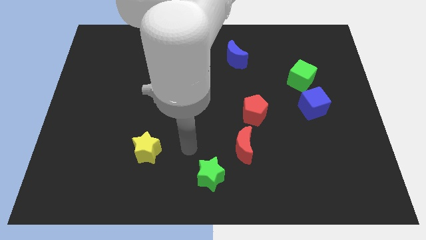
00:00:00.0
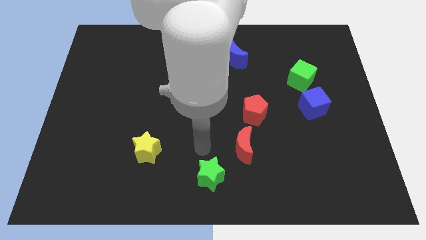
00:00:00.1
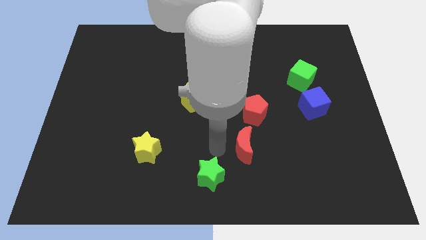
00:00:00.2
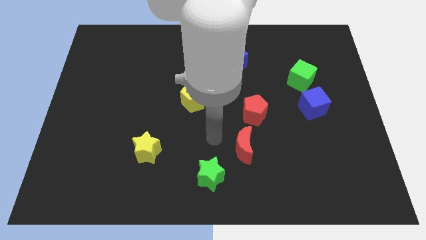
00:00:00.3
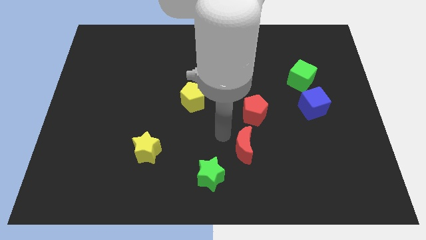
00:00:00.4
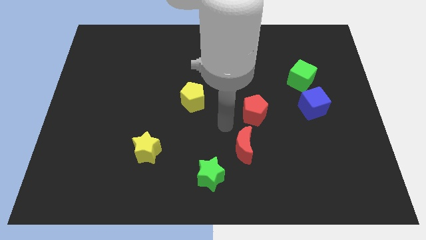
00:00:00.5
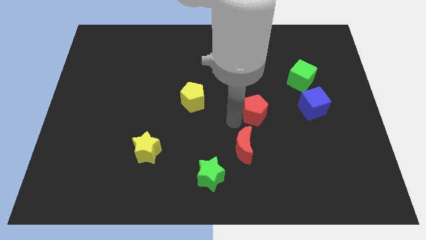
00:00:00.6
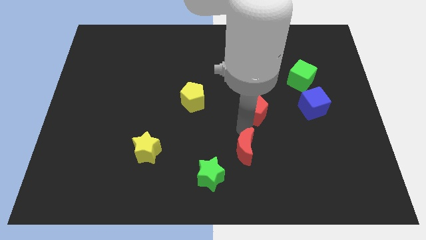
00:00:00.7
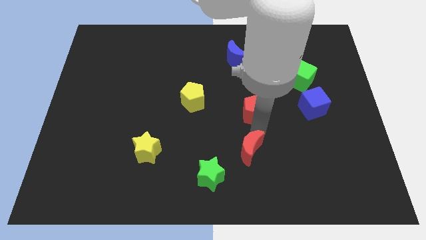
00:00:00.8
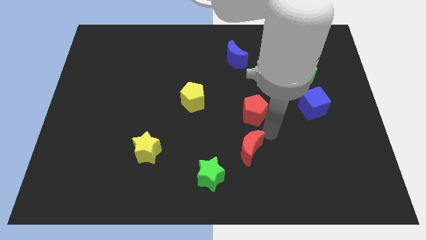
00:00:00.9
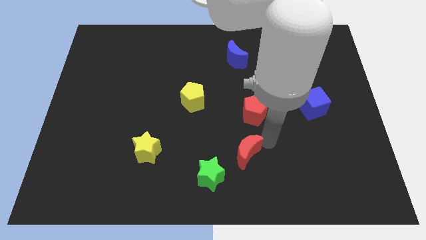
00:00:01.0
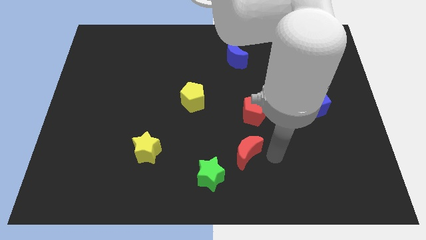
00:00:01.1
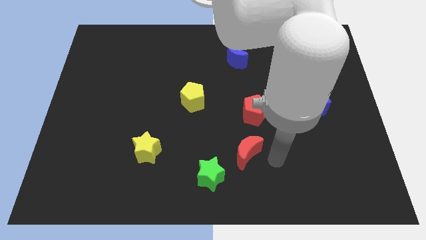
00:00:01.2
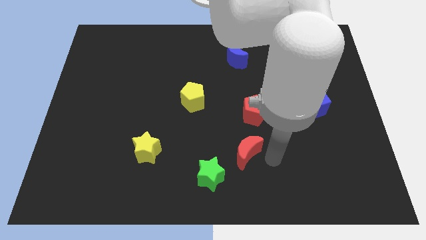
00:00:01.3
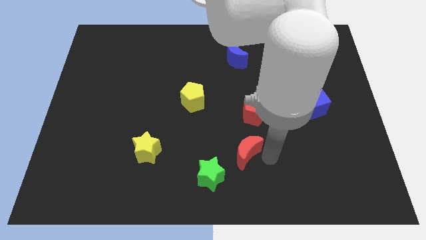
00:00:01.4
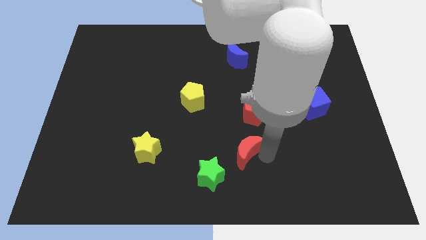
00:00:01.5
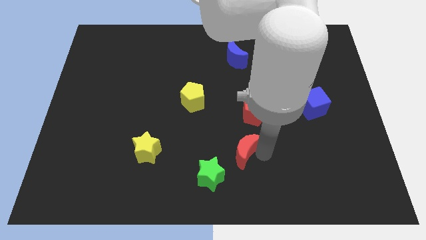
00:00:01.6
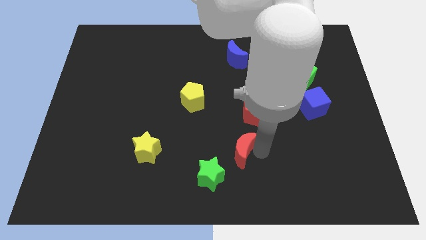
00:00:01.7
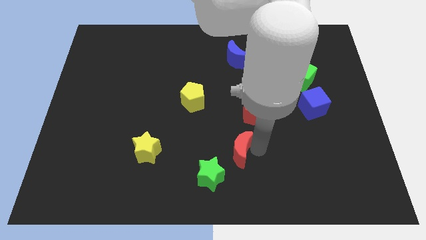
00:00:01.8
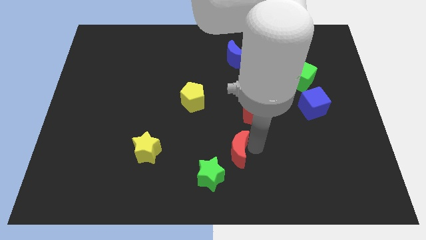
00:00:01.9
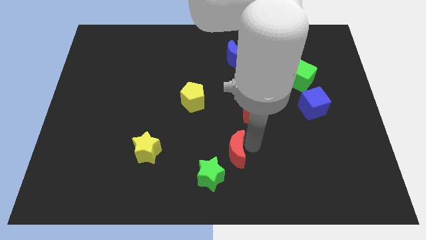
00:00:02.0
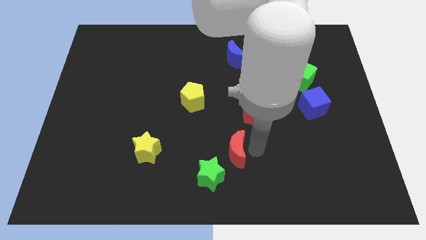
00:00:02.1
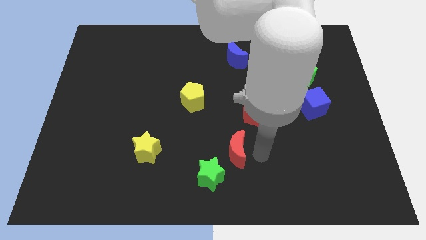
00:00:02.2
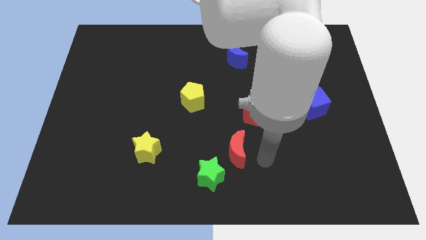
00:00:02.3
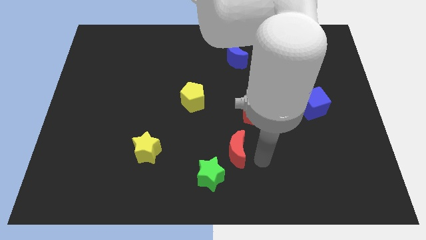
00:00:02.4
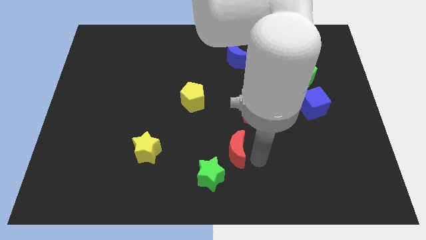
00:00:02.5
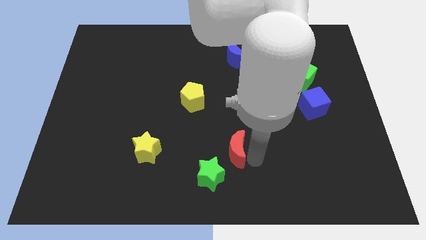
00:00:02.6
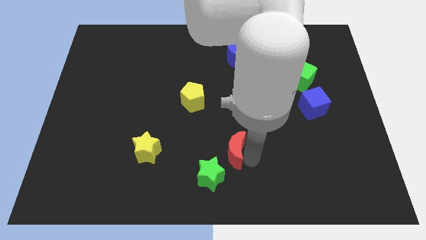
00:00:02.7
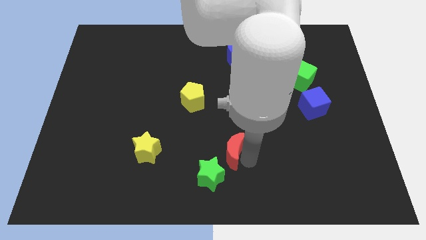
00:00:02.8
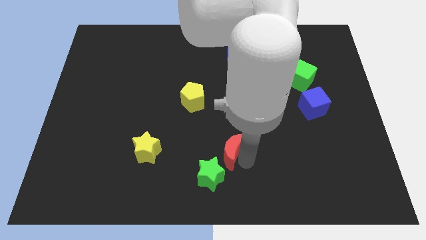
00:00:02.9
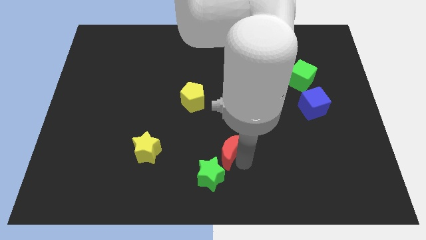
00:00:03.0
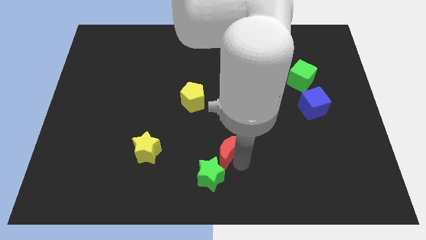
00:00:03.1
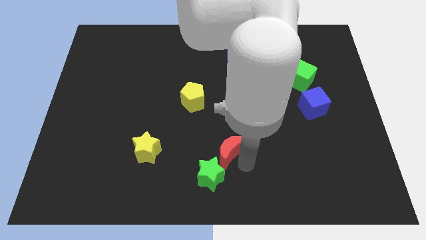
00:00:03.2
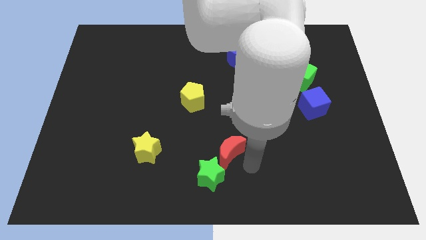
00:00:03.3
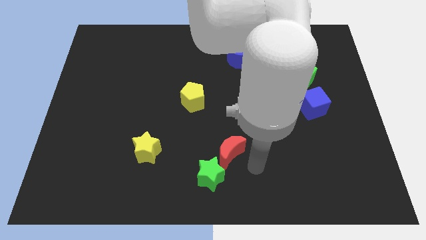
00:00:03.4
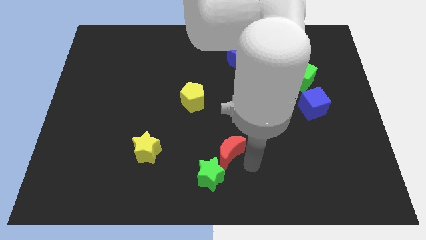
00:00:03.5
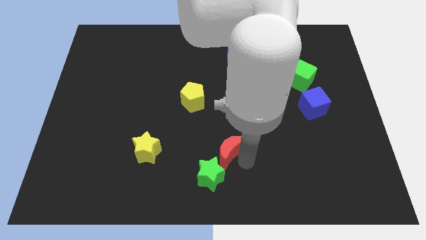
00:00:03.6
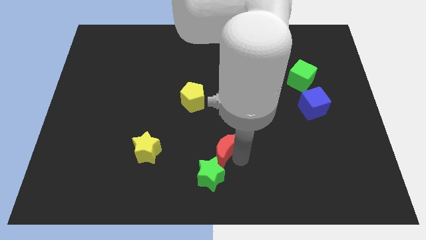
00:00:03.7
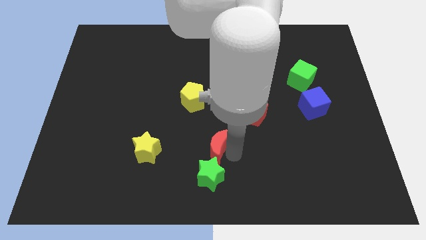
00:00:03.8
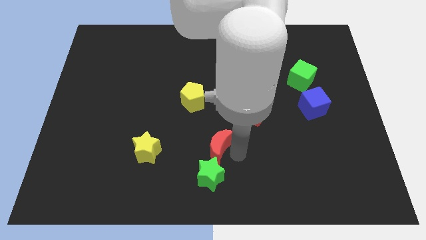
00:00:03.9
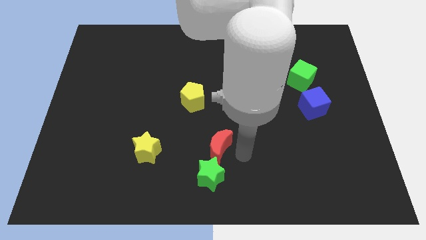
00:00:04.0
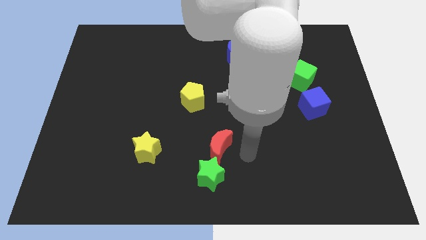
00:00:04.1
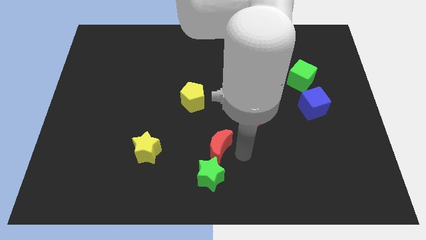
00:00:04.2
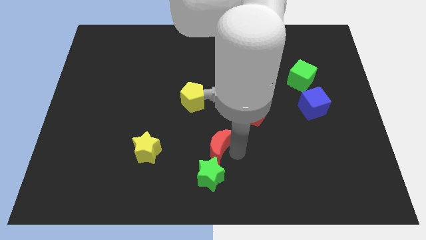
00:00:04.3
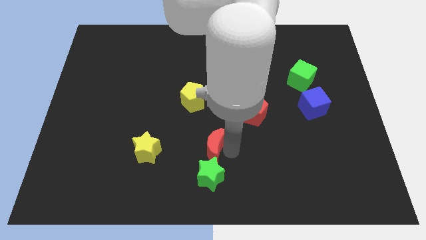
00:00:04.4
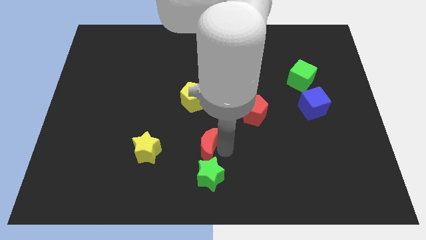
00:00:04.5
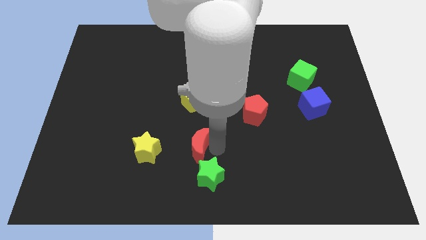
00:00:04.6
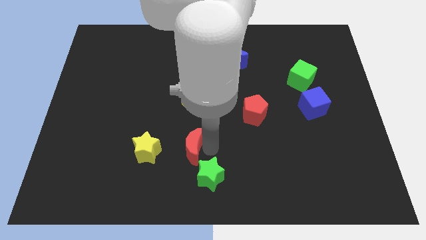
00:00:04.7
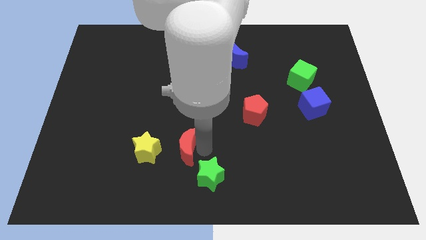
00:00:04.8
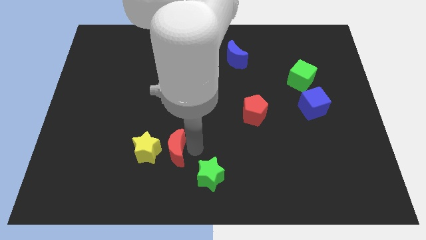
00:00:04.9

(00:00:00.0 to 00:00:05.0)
slide the red moon close to the yellow star

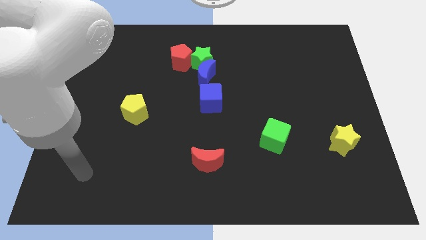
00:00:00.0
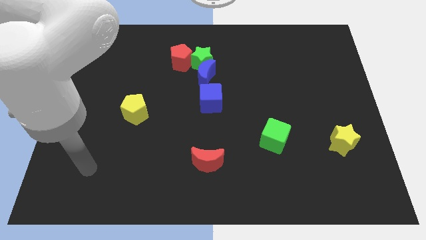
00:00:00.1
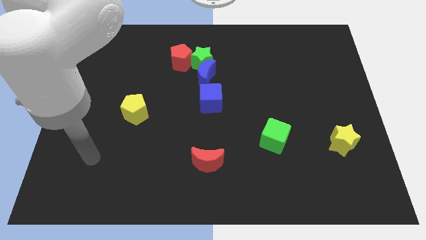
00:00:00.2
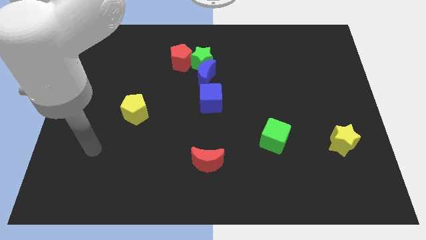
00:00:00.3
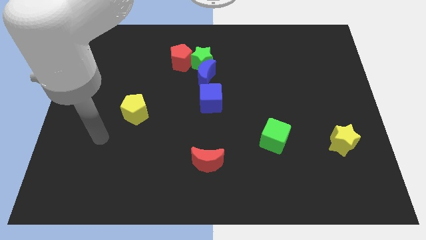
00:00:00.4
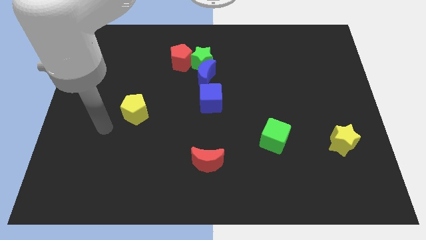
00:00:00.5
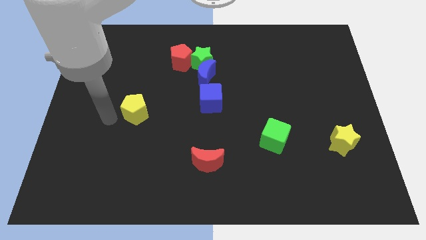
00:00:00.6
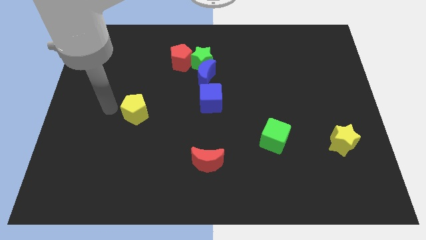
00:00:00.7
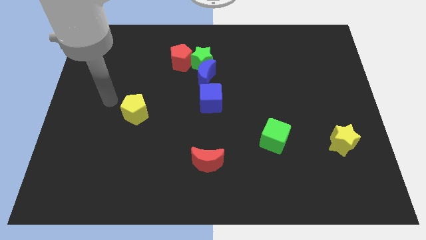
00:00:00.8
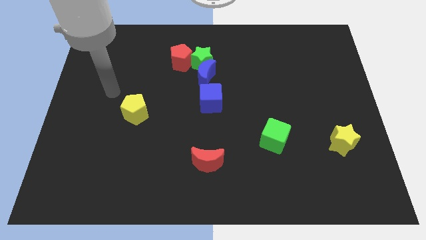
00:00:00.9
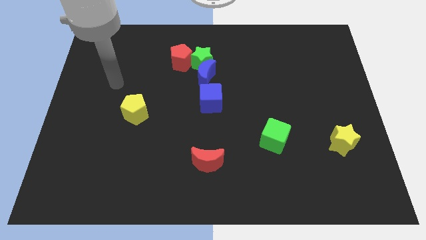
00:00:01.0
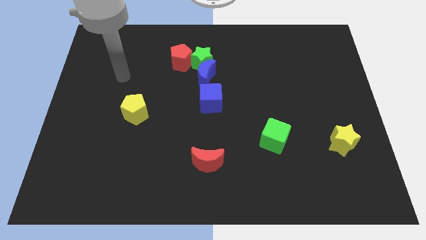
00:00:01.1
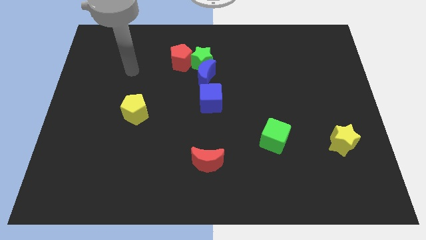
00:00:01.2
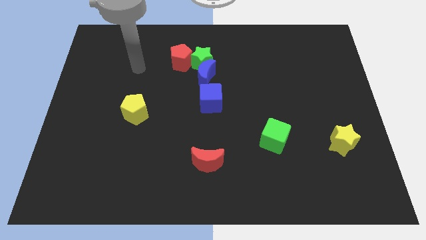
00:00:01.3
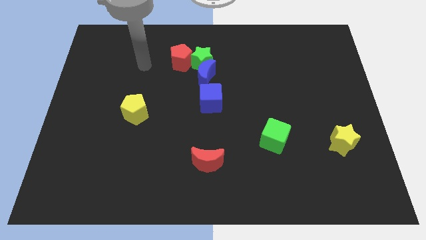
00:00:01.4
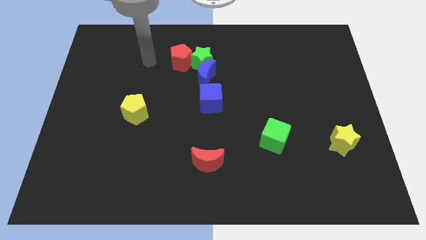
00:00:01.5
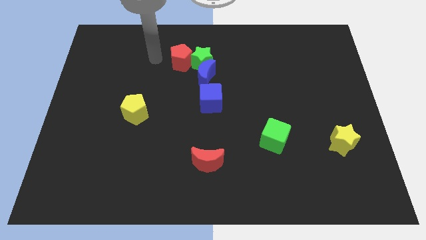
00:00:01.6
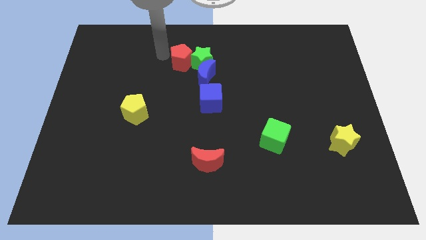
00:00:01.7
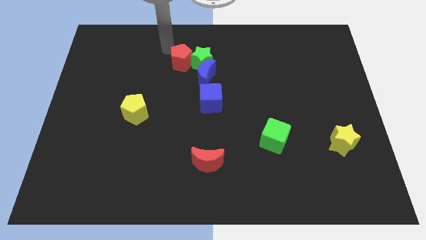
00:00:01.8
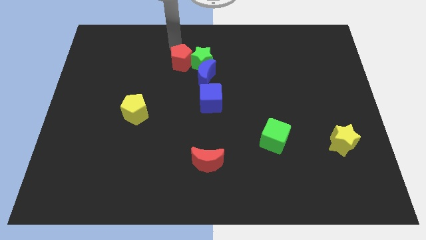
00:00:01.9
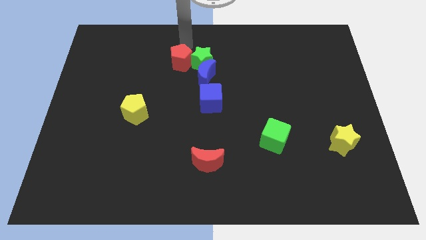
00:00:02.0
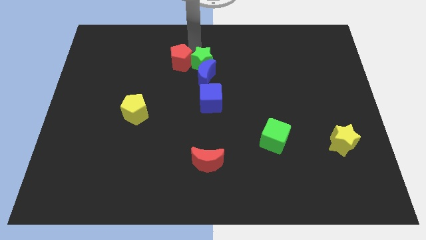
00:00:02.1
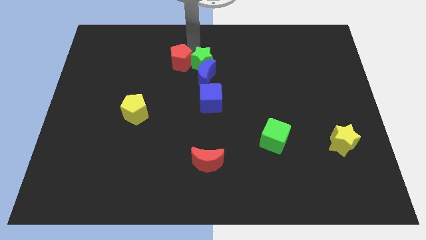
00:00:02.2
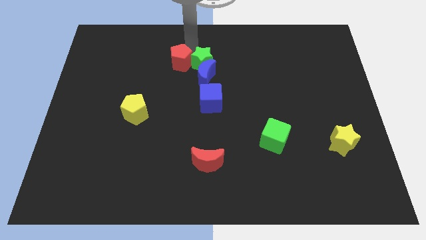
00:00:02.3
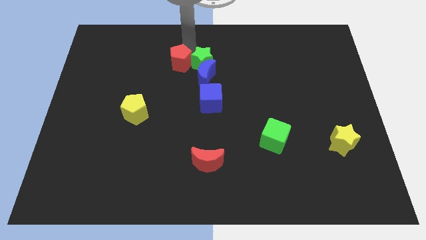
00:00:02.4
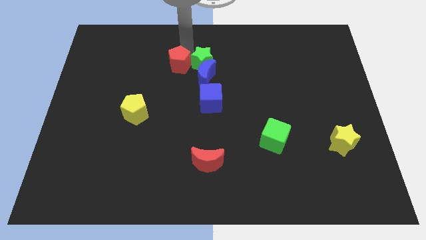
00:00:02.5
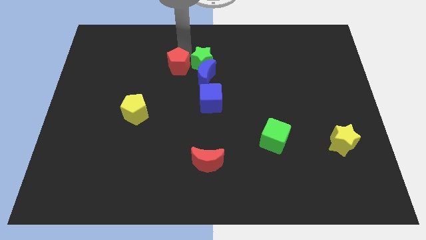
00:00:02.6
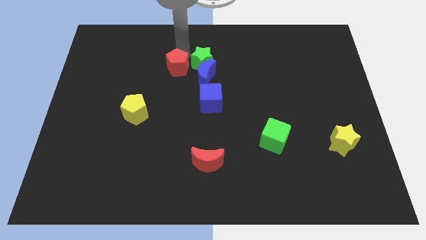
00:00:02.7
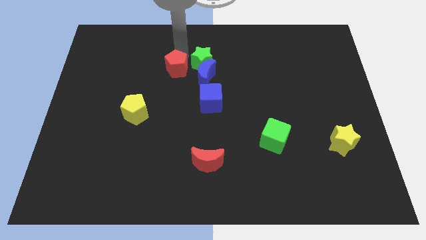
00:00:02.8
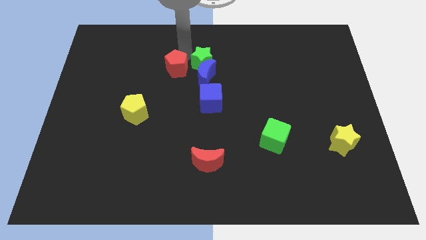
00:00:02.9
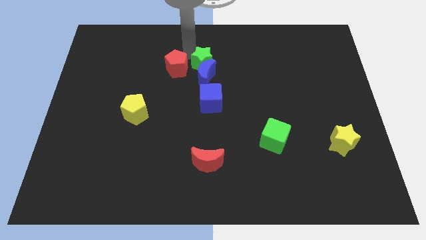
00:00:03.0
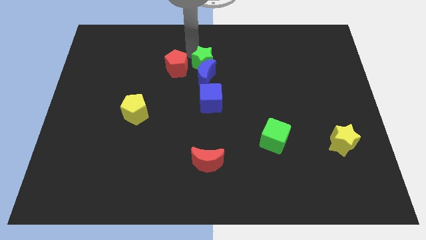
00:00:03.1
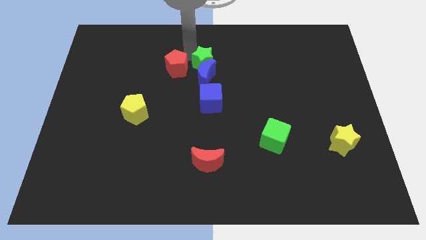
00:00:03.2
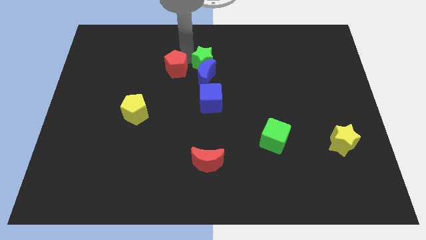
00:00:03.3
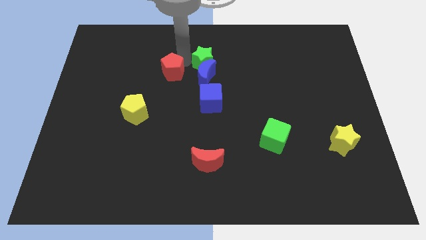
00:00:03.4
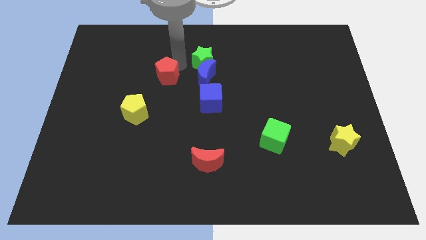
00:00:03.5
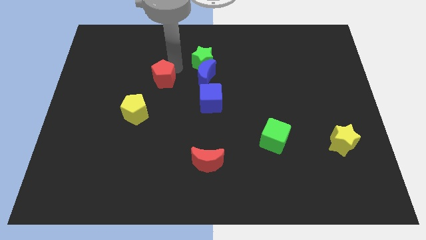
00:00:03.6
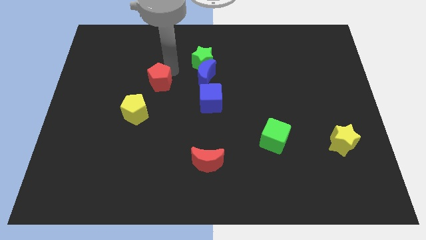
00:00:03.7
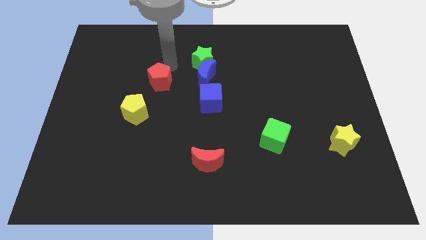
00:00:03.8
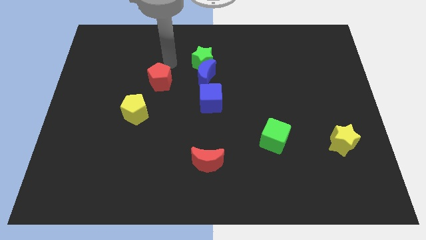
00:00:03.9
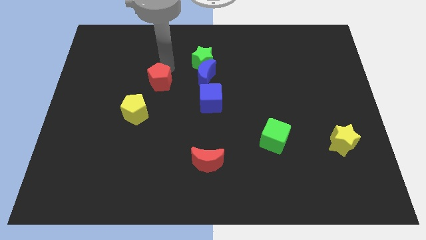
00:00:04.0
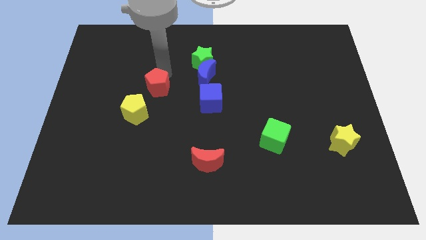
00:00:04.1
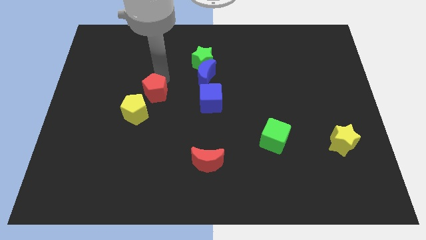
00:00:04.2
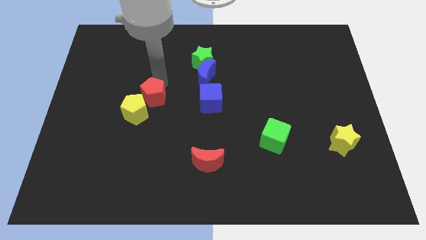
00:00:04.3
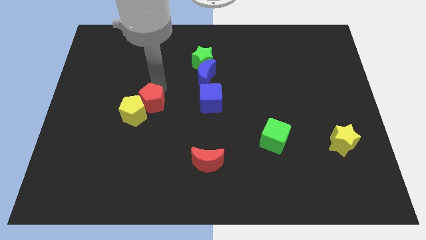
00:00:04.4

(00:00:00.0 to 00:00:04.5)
slide the red pentagon towards the yellow pentagon
